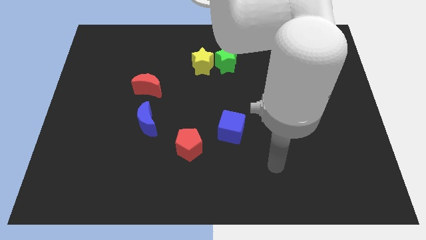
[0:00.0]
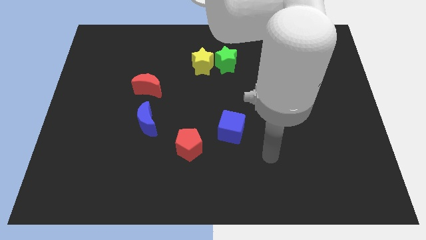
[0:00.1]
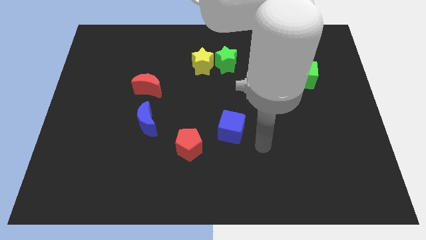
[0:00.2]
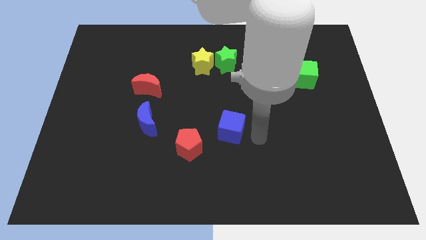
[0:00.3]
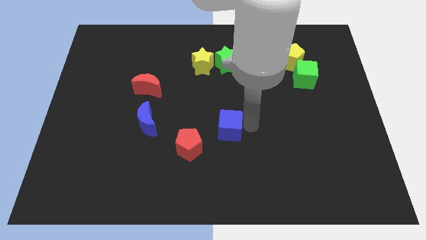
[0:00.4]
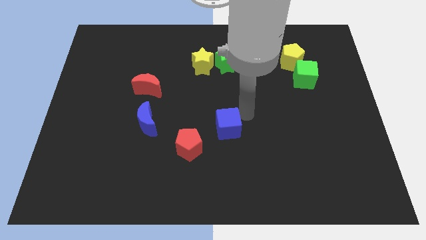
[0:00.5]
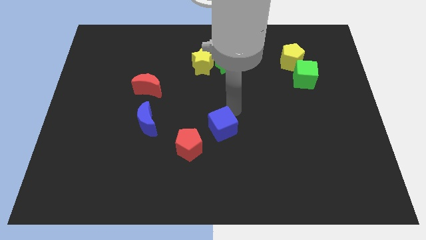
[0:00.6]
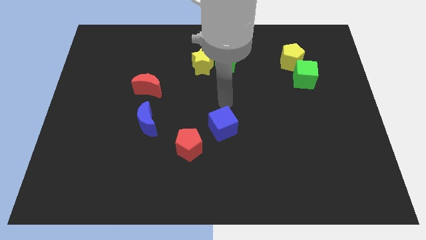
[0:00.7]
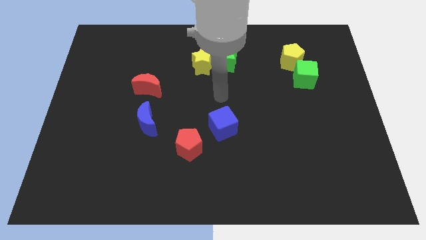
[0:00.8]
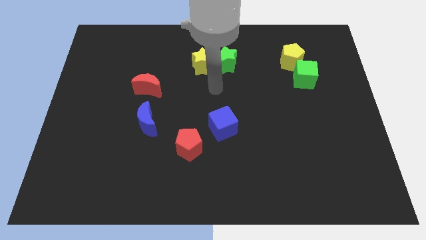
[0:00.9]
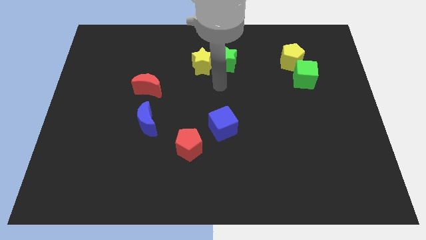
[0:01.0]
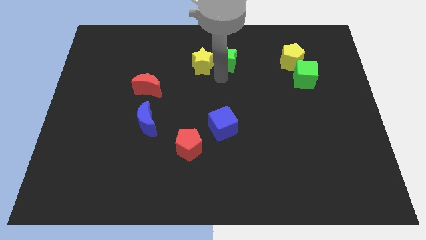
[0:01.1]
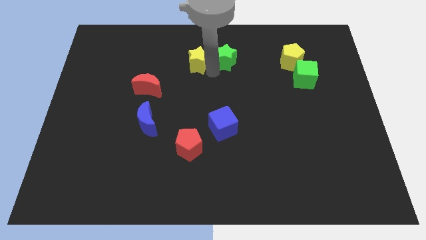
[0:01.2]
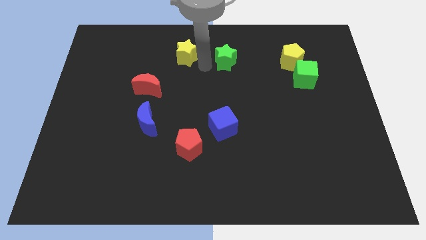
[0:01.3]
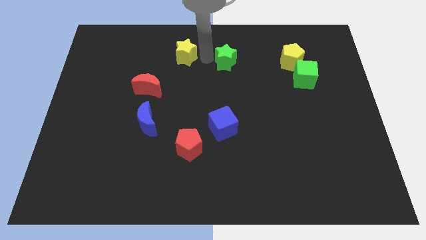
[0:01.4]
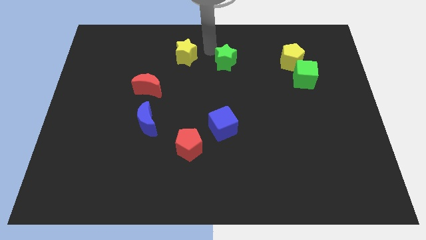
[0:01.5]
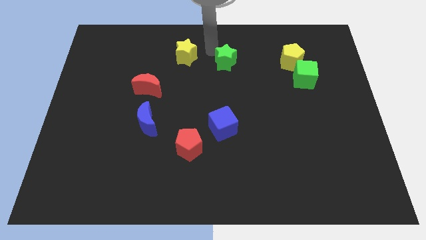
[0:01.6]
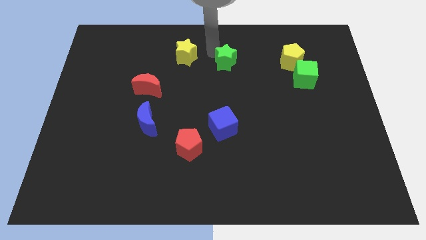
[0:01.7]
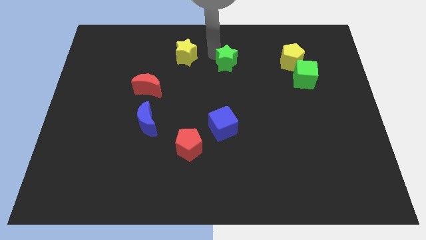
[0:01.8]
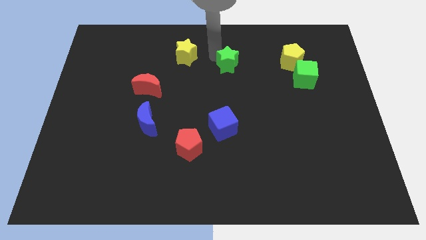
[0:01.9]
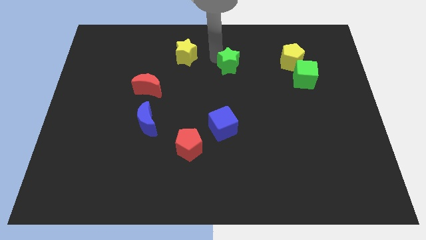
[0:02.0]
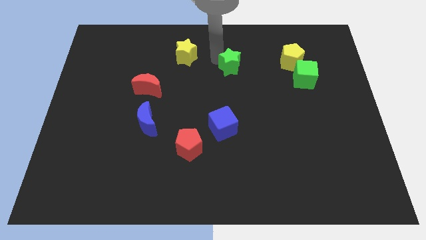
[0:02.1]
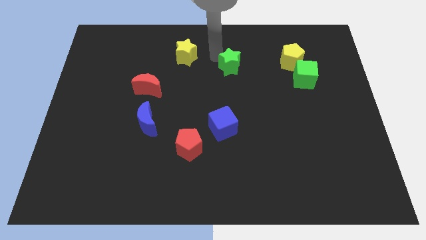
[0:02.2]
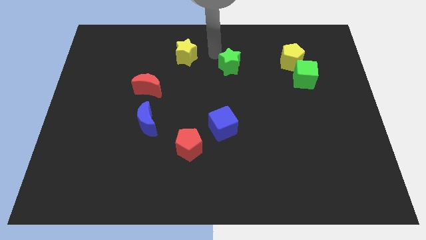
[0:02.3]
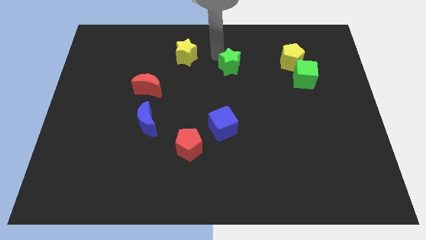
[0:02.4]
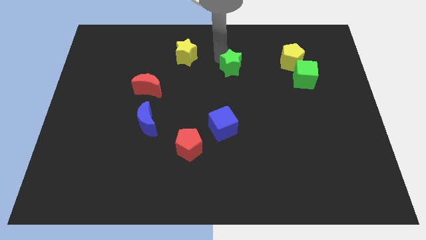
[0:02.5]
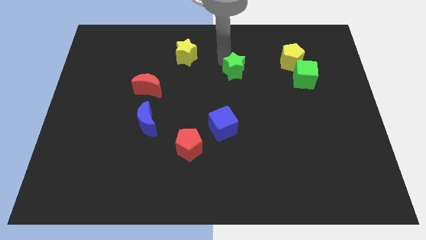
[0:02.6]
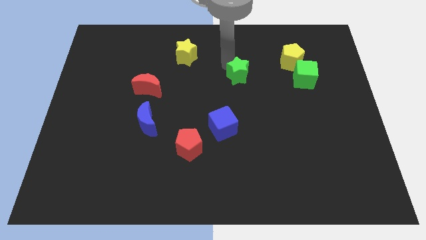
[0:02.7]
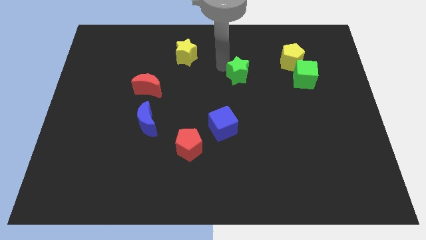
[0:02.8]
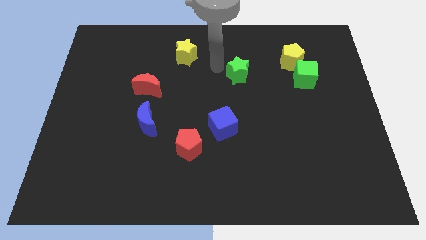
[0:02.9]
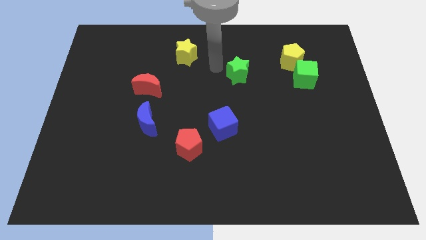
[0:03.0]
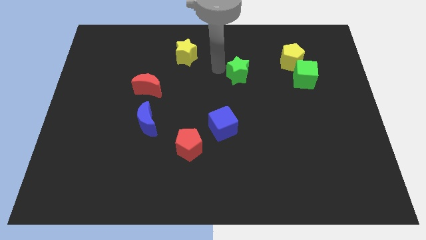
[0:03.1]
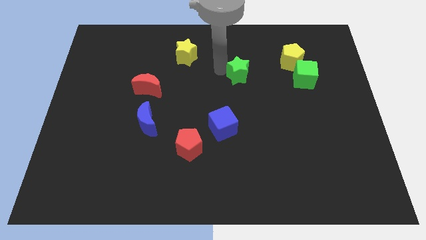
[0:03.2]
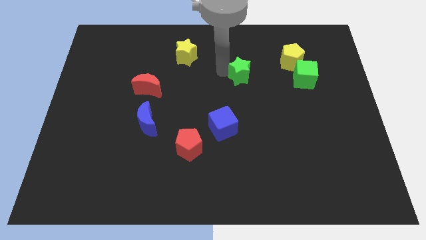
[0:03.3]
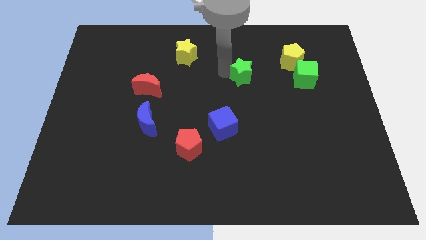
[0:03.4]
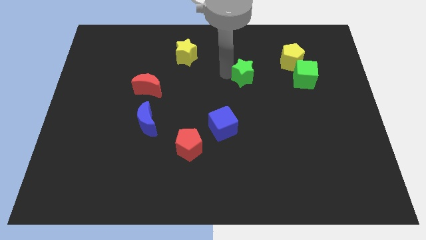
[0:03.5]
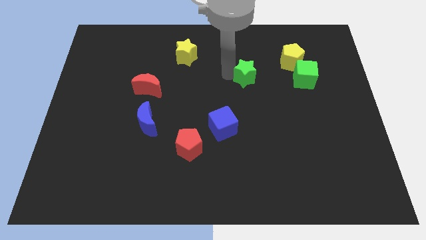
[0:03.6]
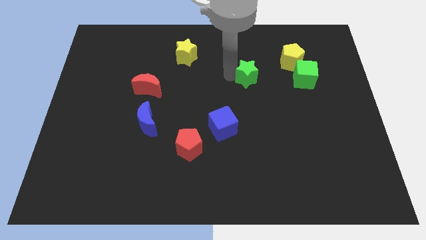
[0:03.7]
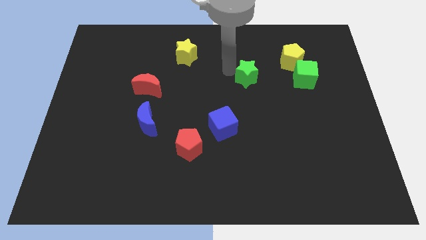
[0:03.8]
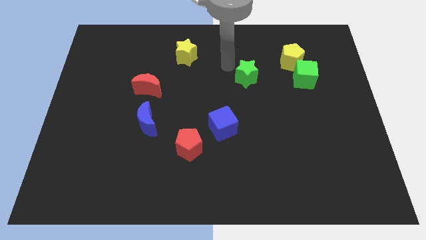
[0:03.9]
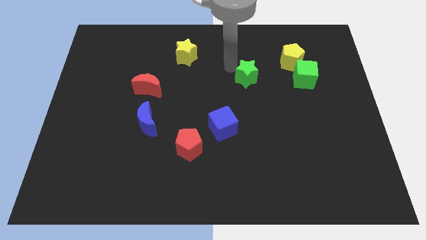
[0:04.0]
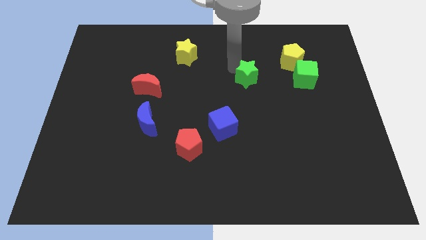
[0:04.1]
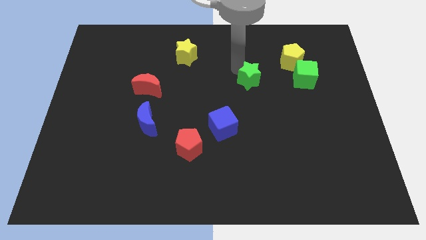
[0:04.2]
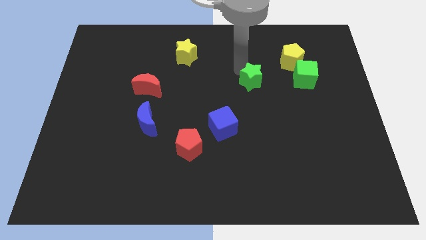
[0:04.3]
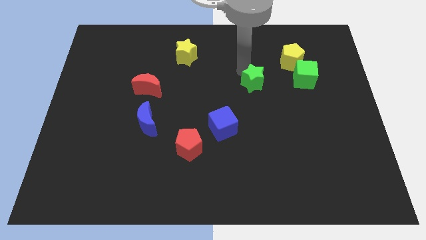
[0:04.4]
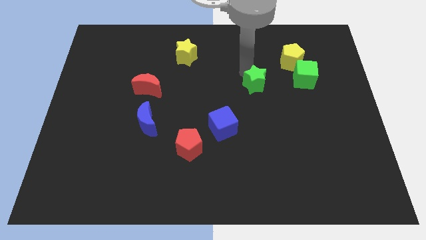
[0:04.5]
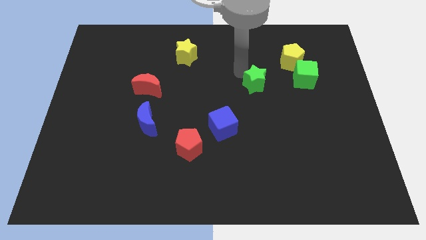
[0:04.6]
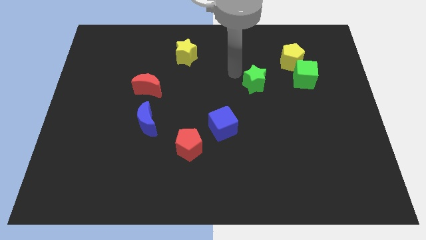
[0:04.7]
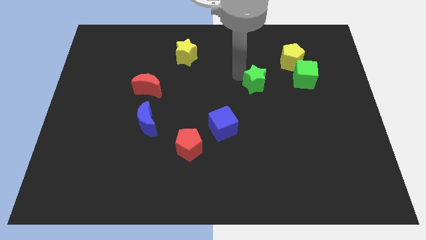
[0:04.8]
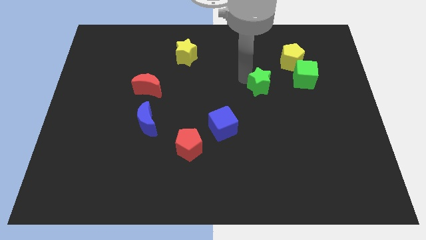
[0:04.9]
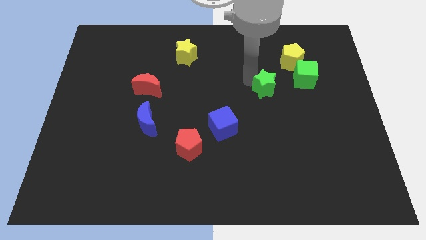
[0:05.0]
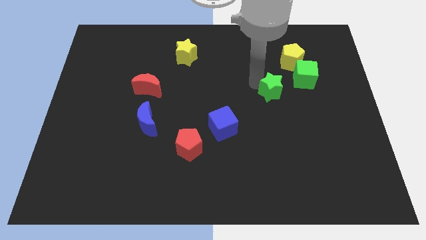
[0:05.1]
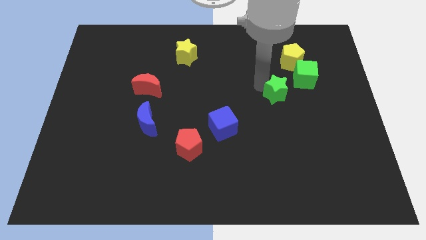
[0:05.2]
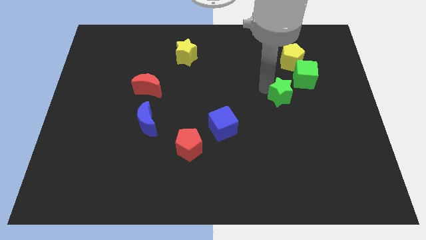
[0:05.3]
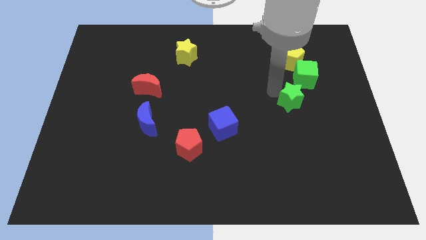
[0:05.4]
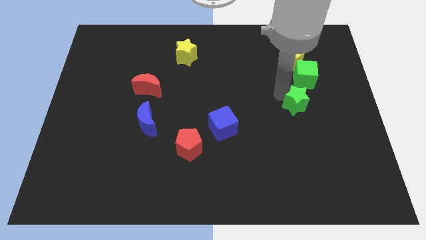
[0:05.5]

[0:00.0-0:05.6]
slide the green star downwards and right diagonally

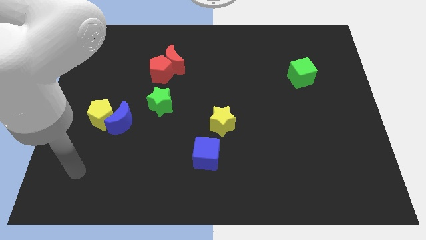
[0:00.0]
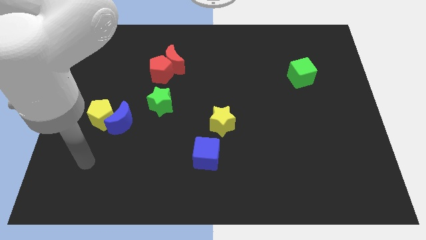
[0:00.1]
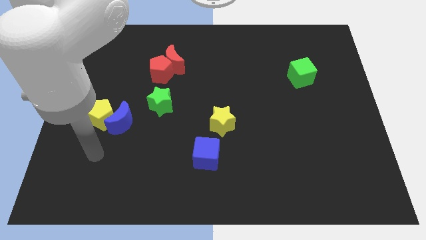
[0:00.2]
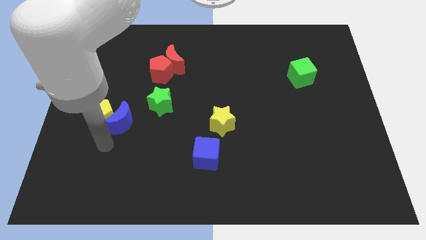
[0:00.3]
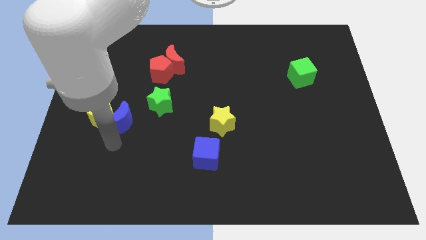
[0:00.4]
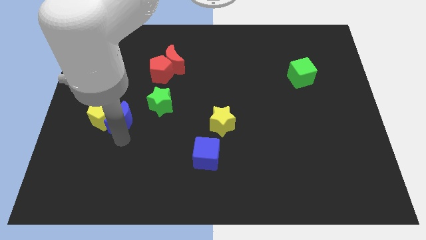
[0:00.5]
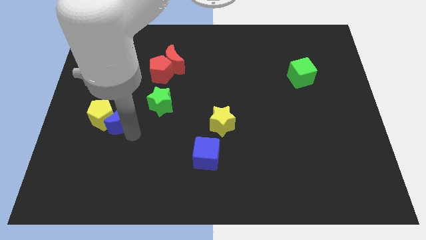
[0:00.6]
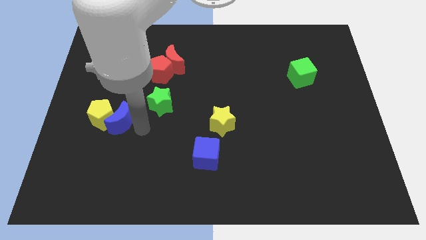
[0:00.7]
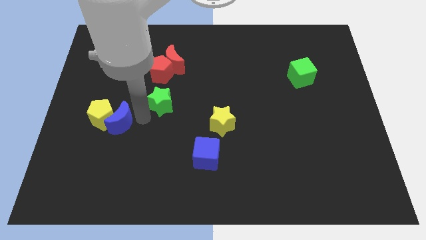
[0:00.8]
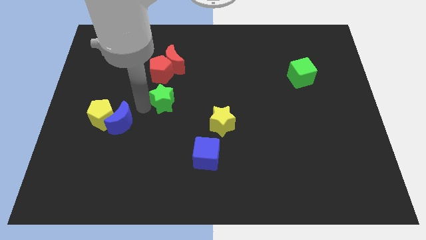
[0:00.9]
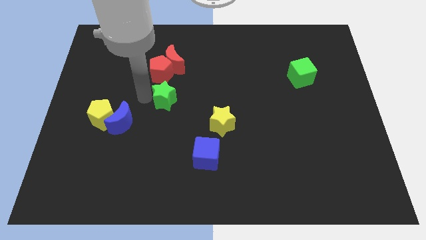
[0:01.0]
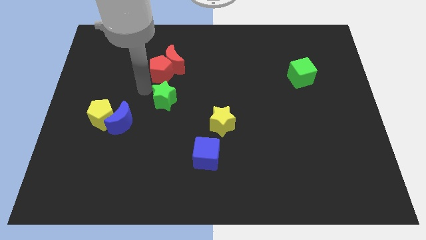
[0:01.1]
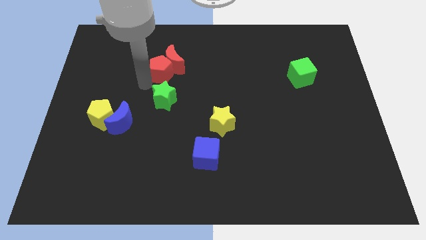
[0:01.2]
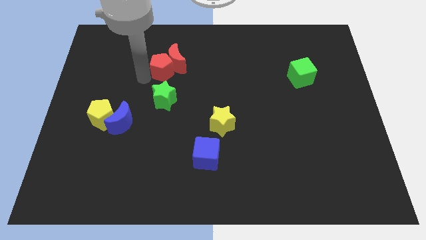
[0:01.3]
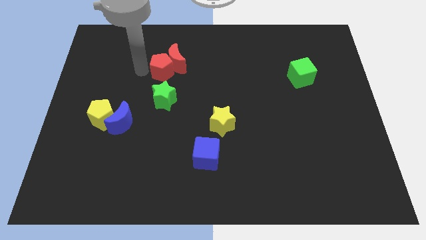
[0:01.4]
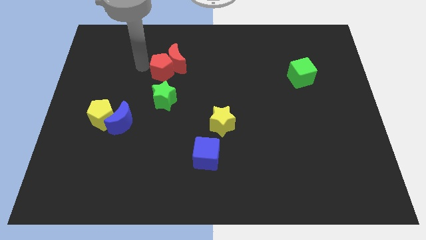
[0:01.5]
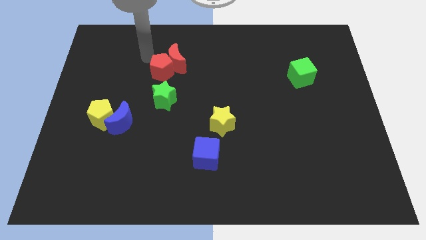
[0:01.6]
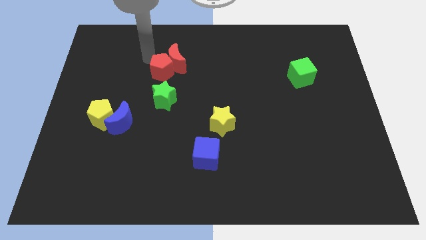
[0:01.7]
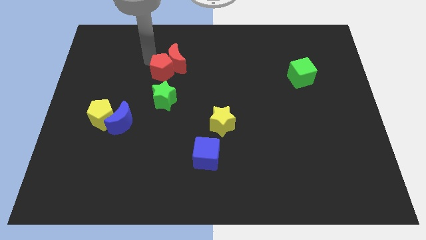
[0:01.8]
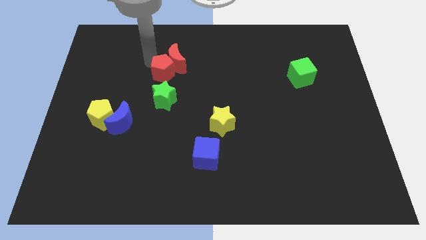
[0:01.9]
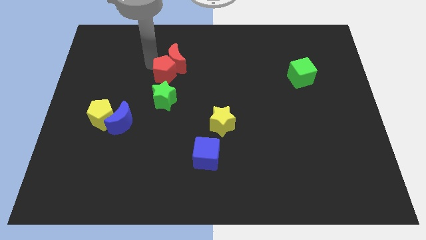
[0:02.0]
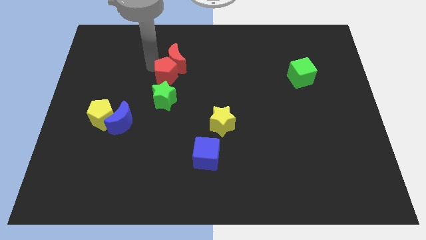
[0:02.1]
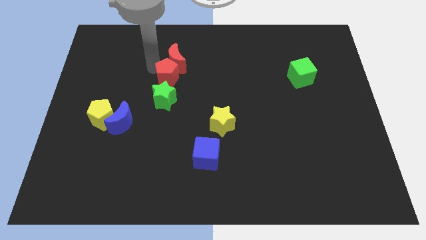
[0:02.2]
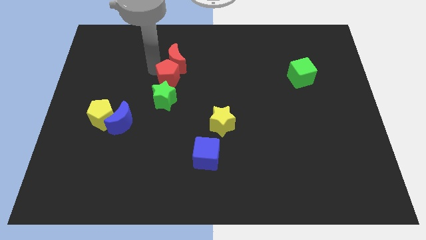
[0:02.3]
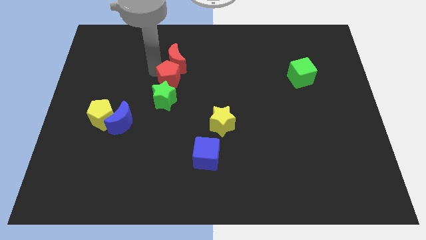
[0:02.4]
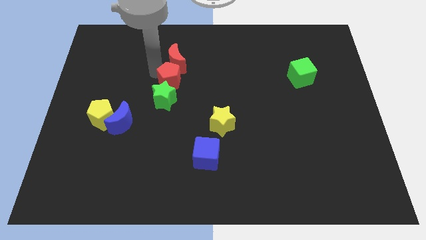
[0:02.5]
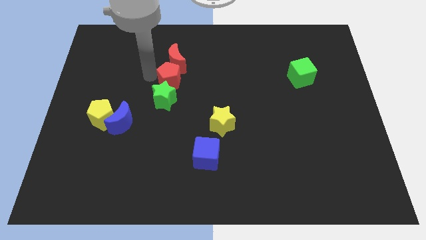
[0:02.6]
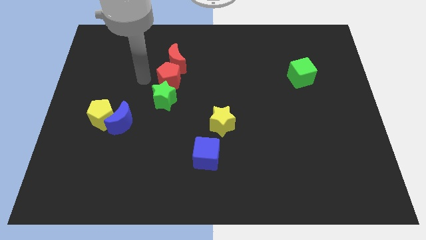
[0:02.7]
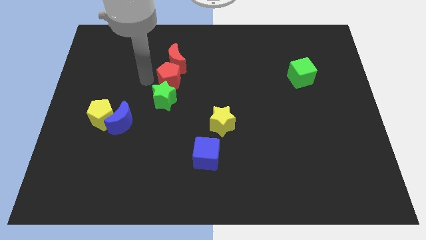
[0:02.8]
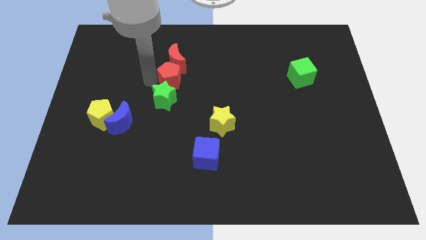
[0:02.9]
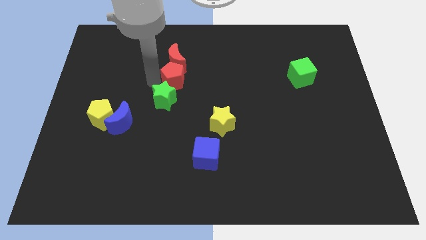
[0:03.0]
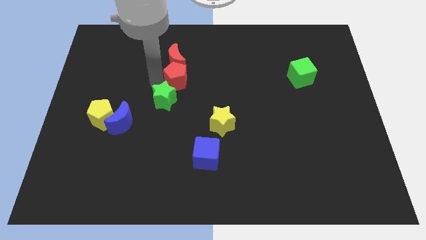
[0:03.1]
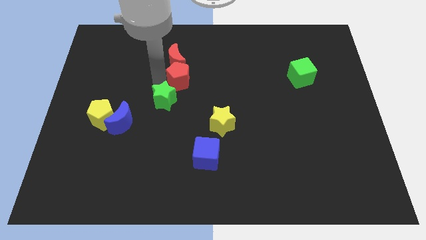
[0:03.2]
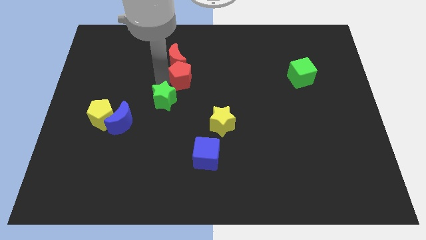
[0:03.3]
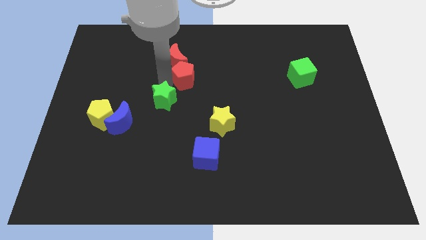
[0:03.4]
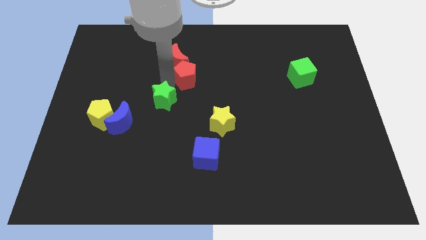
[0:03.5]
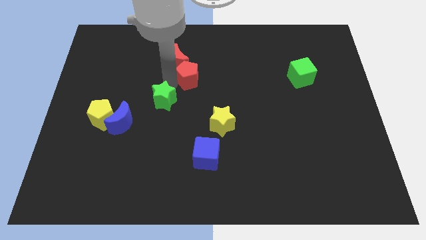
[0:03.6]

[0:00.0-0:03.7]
move the red pentagon a bit to the right
